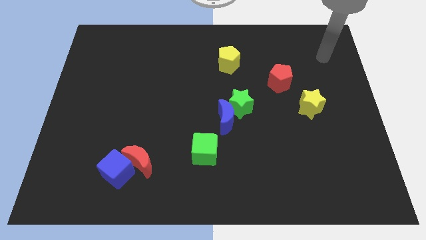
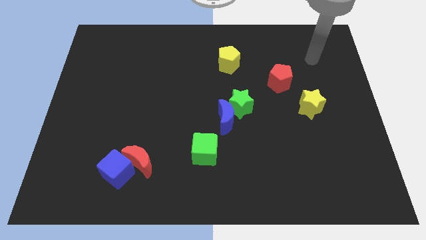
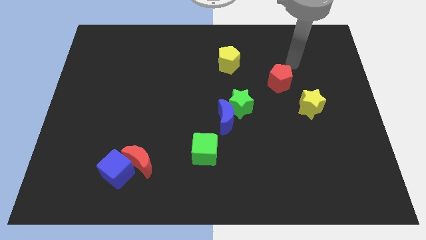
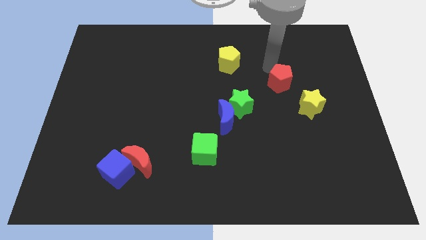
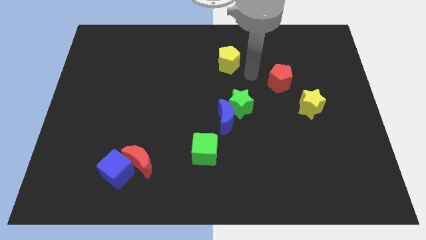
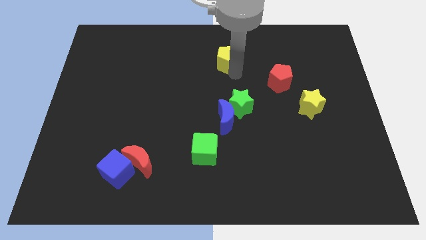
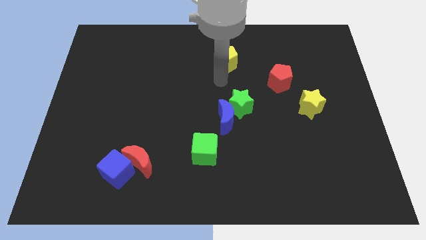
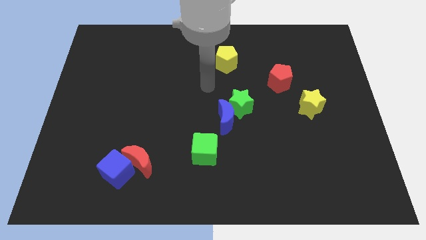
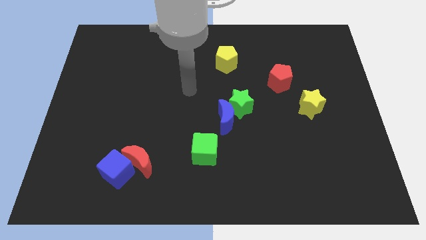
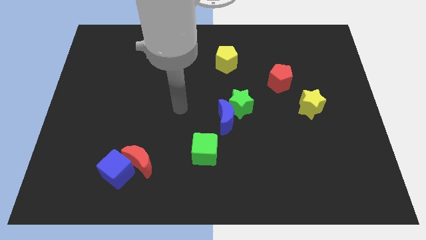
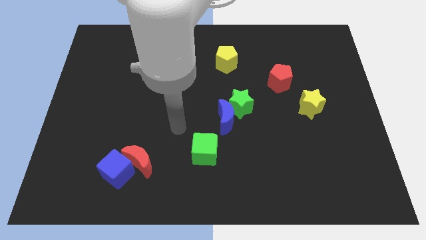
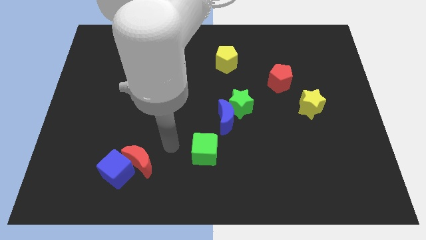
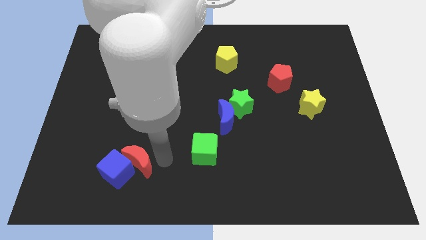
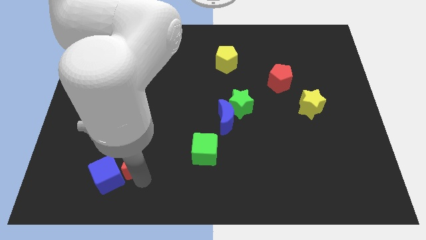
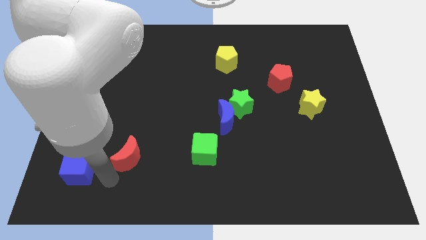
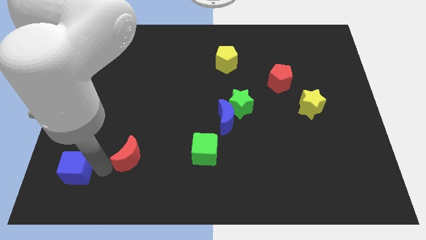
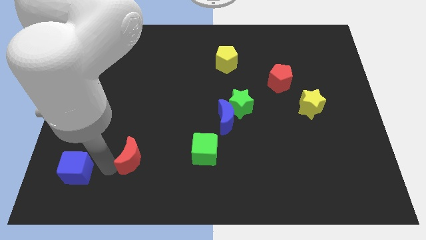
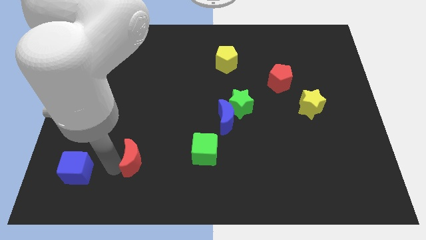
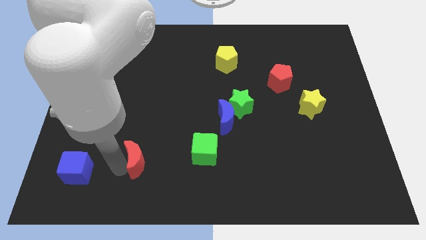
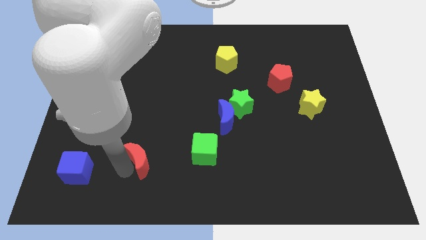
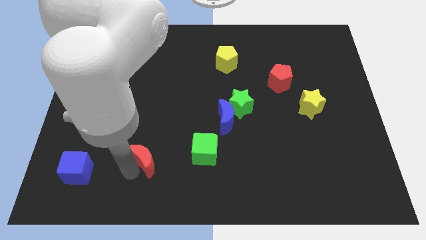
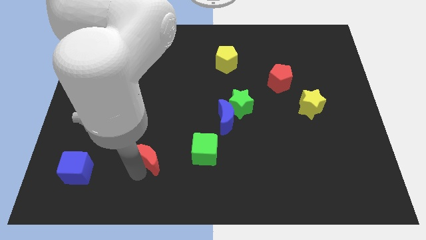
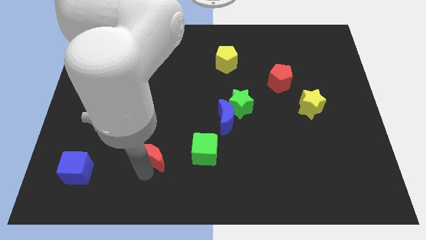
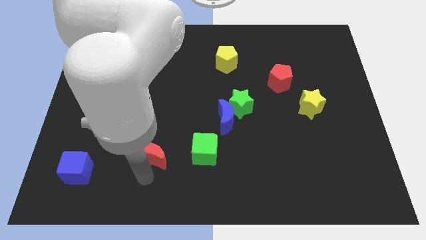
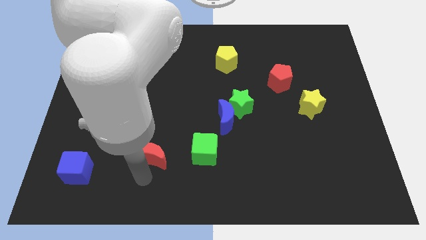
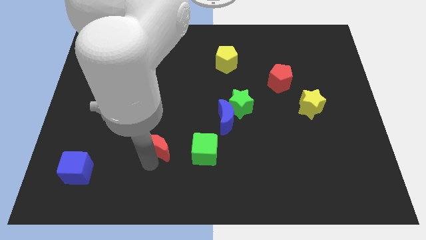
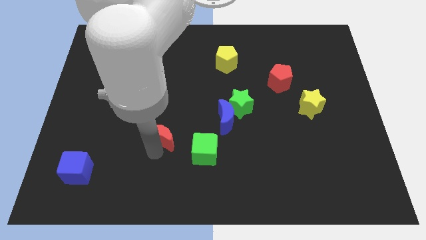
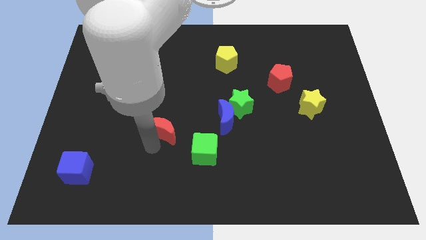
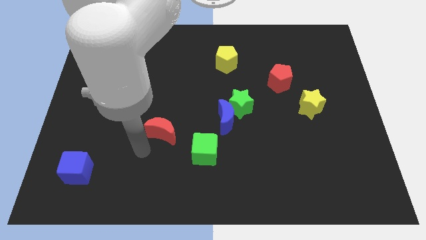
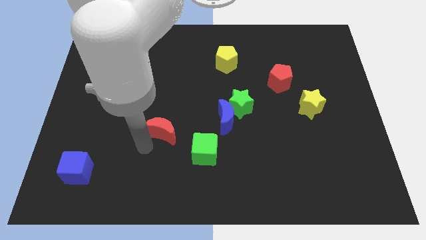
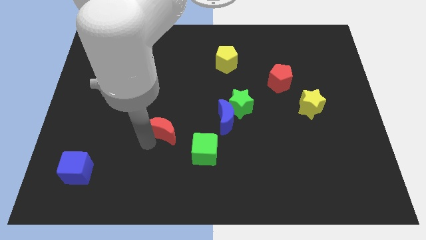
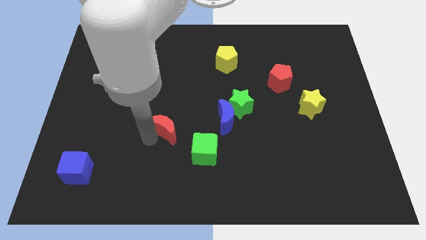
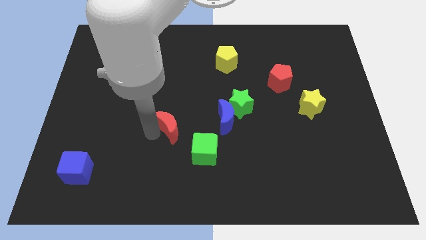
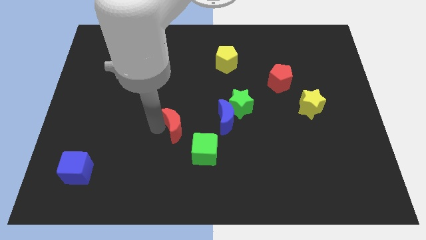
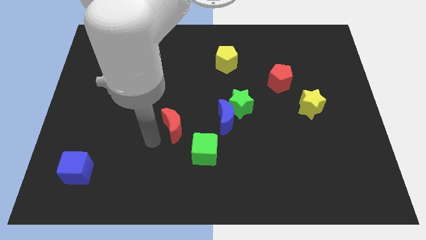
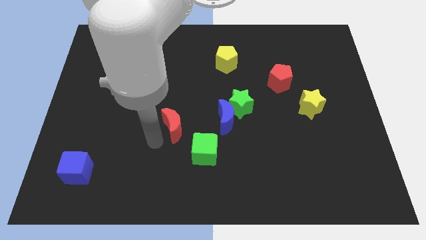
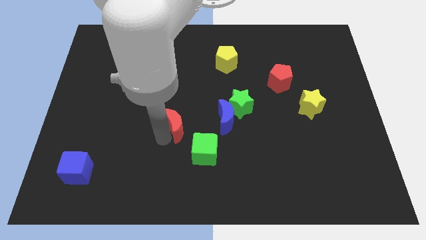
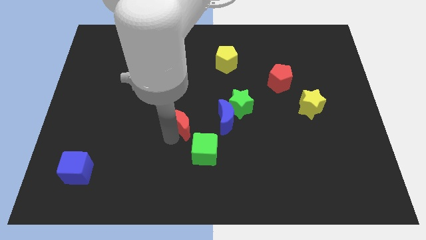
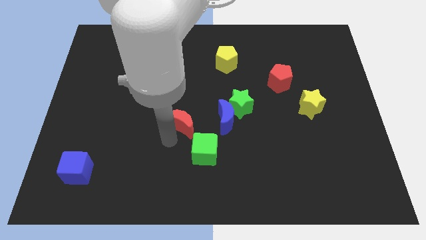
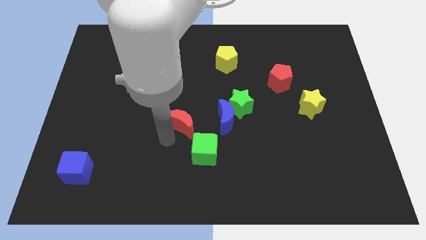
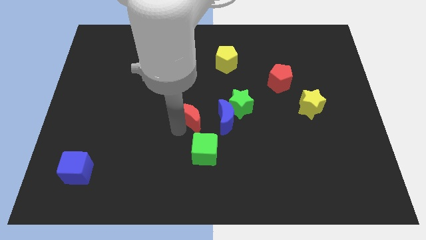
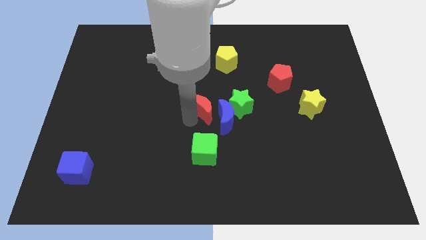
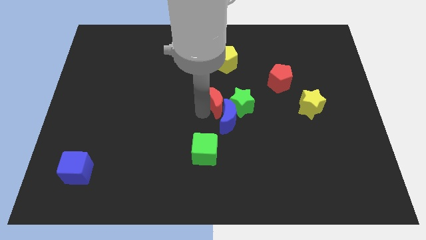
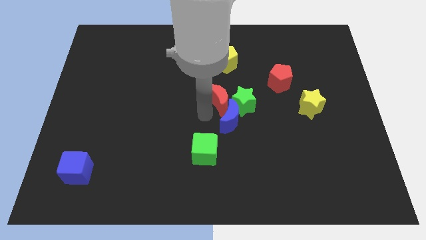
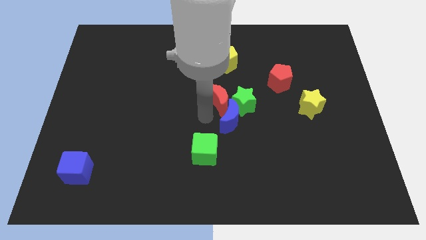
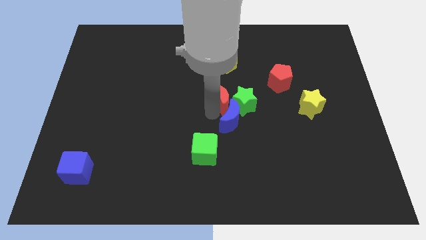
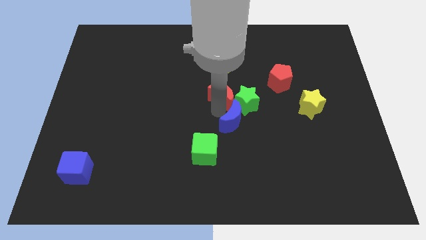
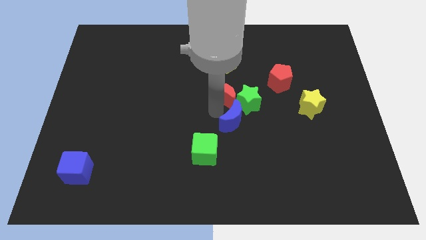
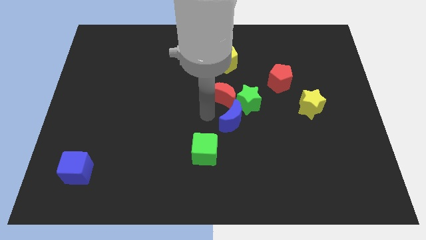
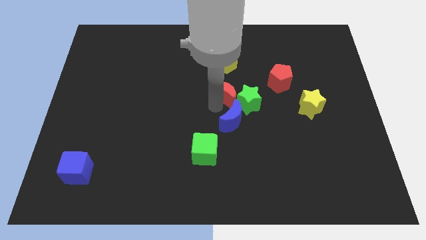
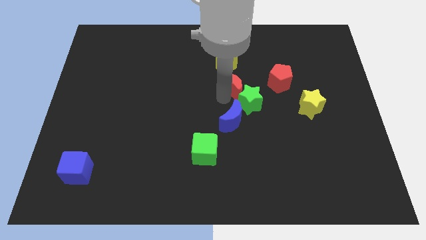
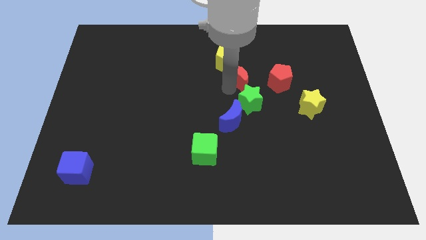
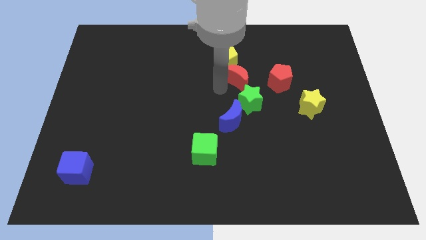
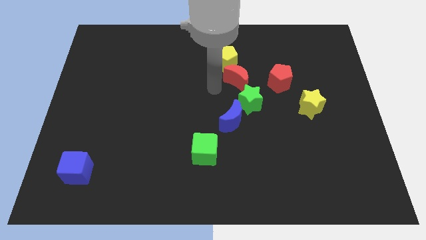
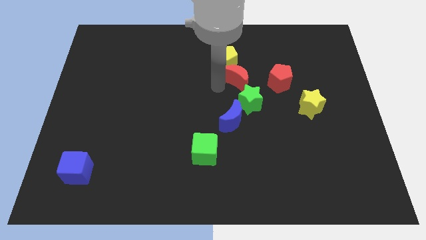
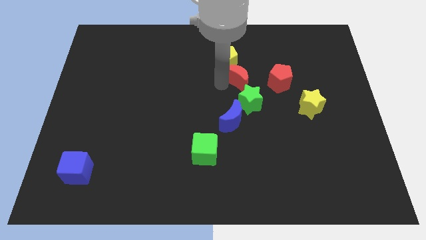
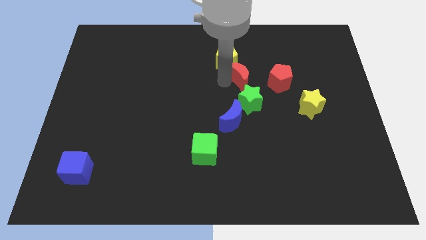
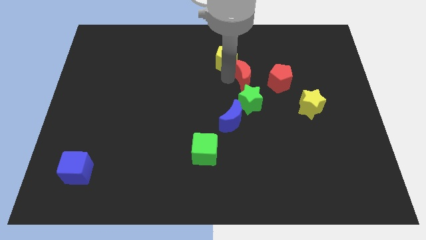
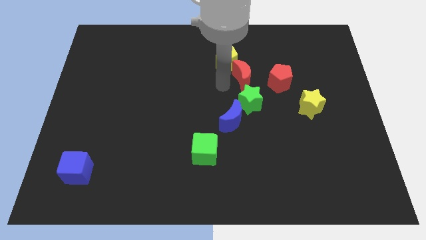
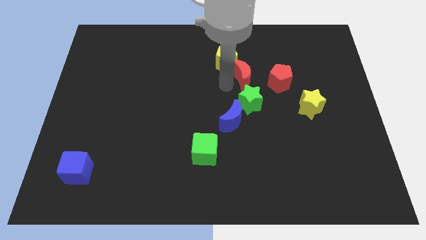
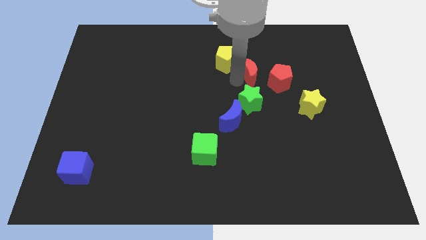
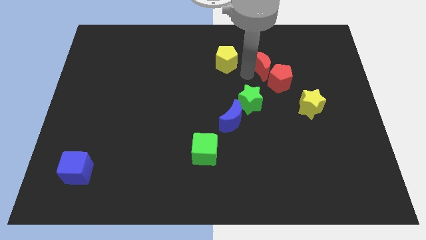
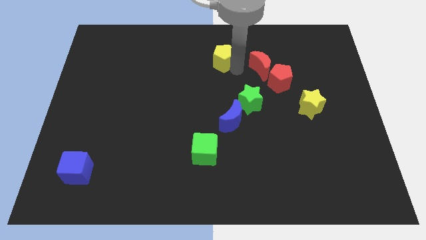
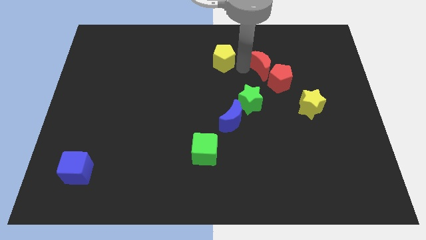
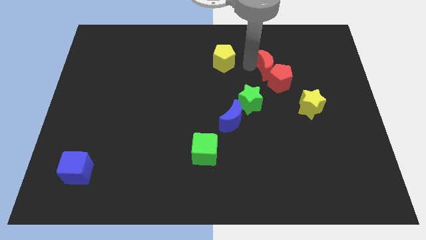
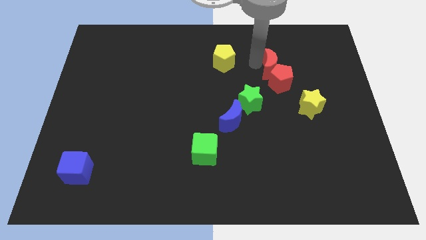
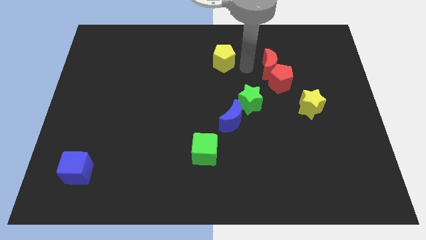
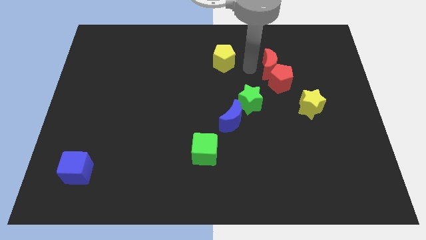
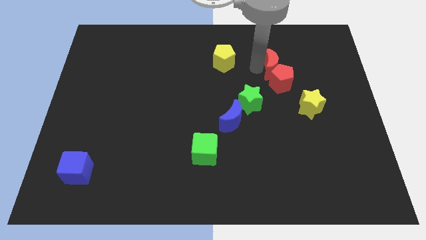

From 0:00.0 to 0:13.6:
move the red moon to the top right of the red pentagon
